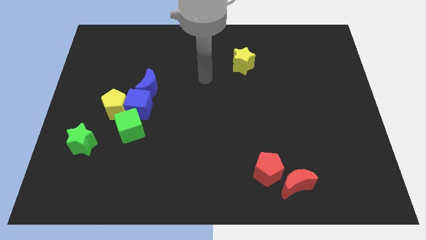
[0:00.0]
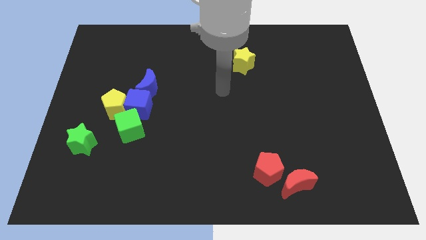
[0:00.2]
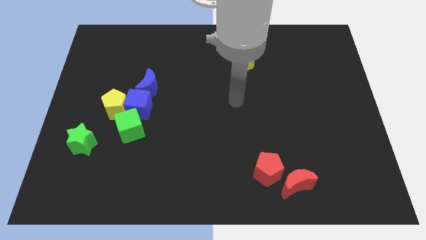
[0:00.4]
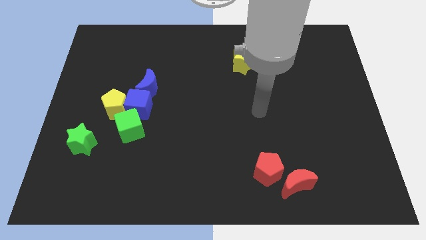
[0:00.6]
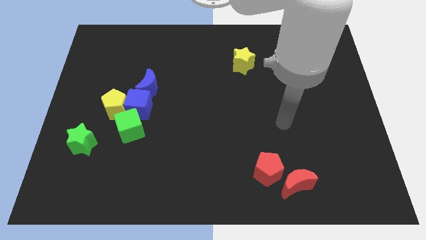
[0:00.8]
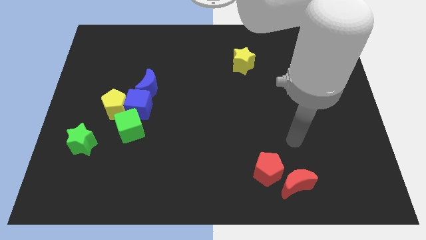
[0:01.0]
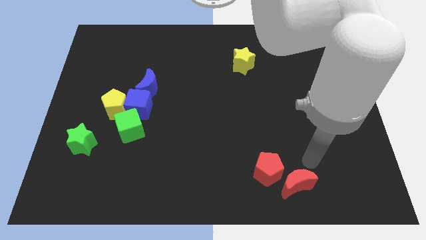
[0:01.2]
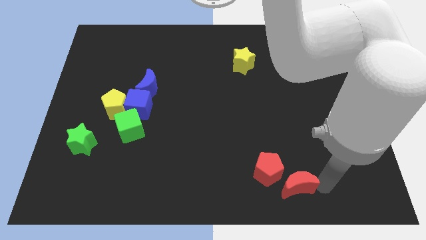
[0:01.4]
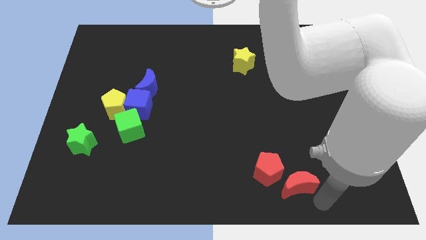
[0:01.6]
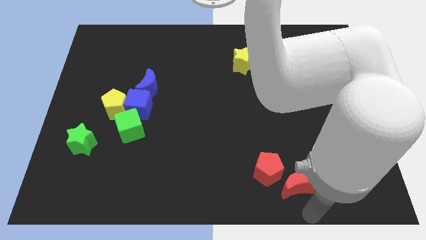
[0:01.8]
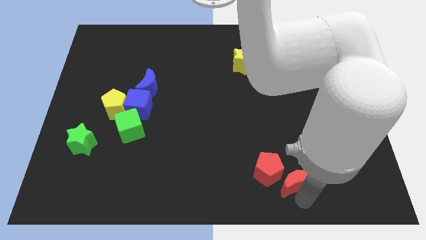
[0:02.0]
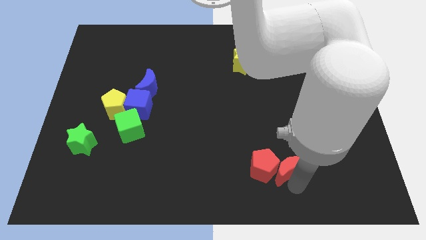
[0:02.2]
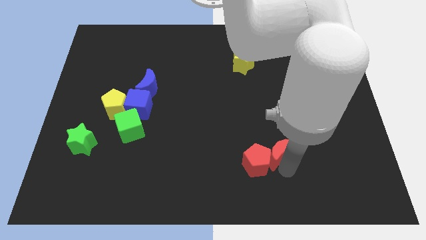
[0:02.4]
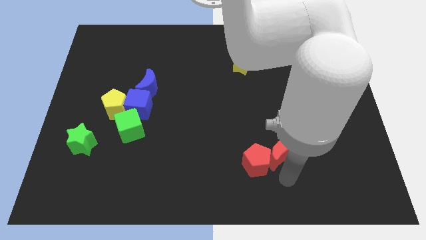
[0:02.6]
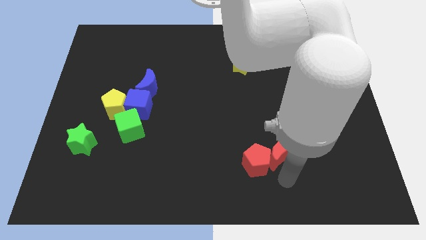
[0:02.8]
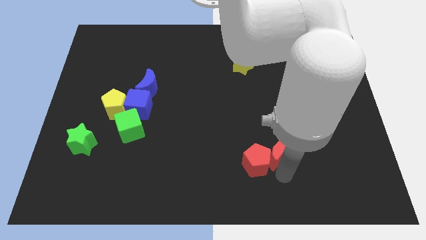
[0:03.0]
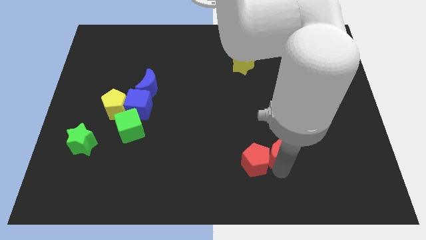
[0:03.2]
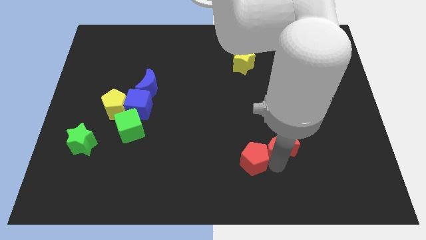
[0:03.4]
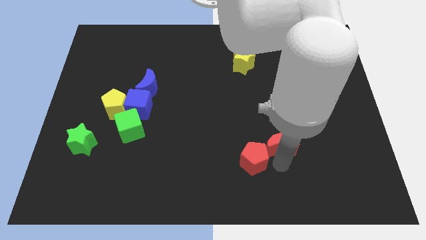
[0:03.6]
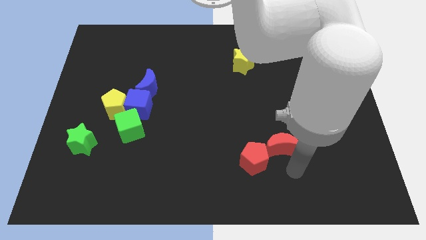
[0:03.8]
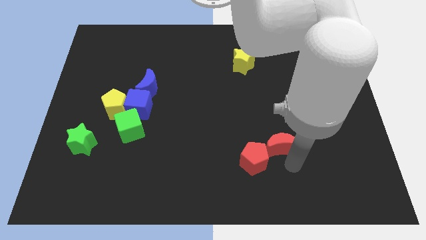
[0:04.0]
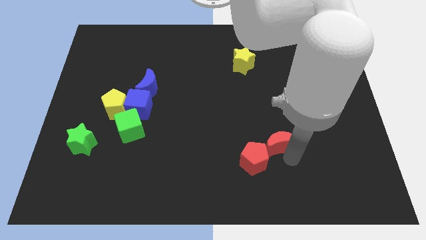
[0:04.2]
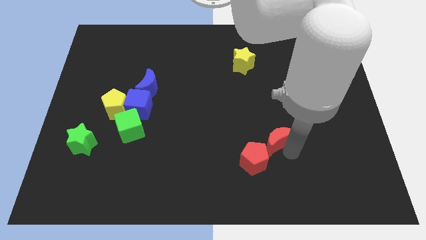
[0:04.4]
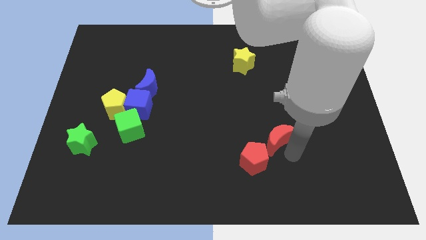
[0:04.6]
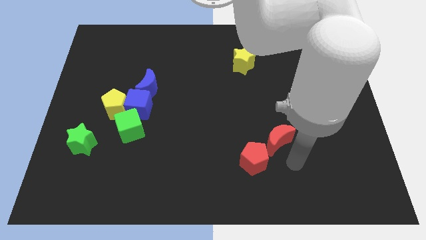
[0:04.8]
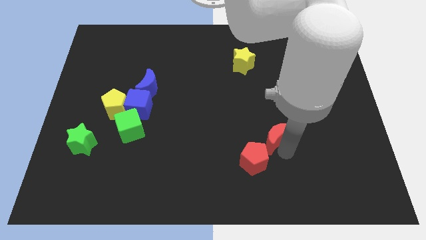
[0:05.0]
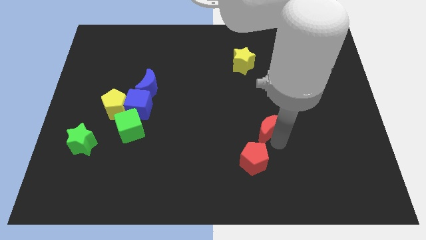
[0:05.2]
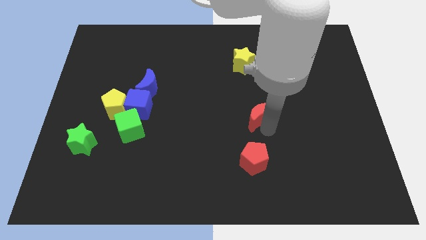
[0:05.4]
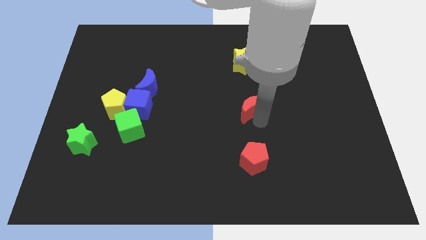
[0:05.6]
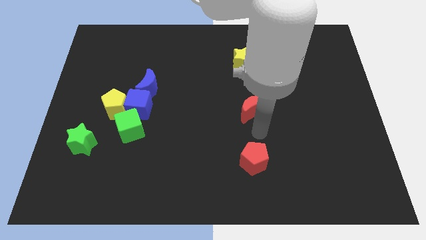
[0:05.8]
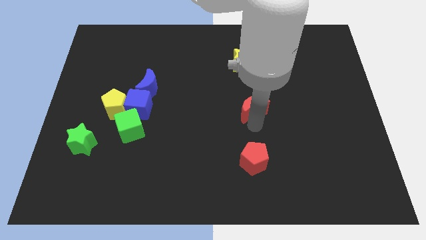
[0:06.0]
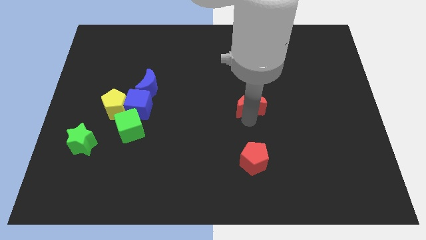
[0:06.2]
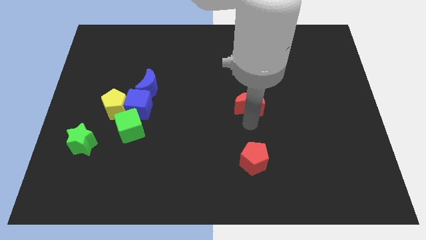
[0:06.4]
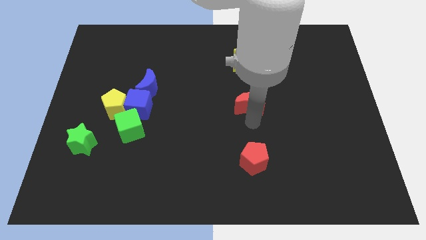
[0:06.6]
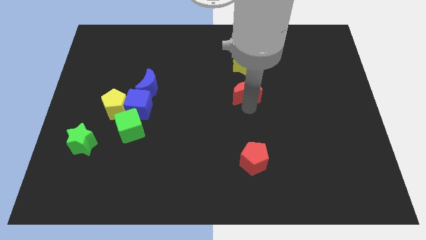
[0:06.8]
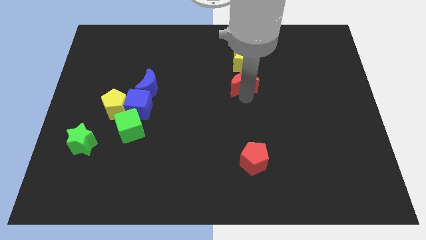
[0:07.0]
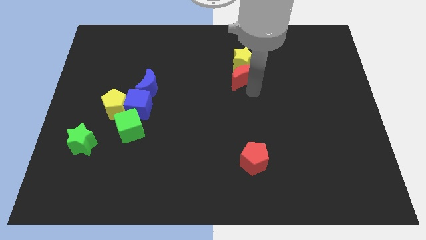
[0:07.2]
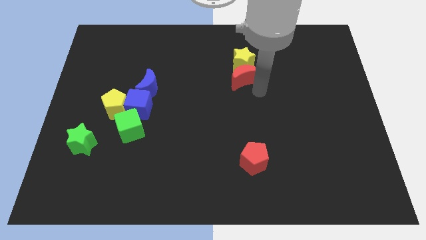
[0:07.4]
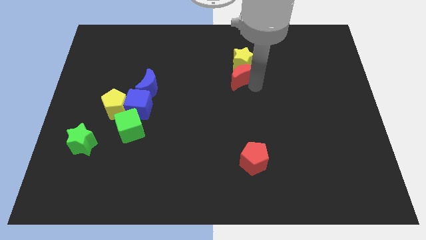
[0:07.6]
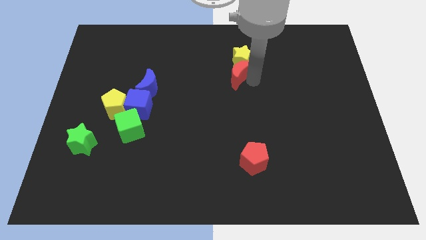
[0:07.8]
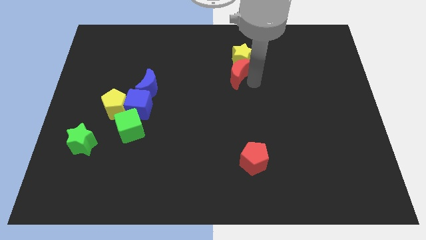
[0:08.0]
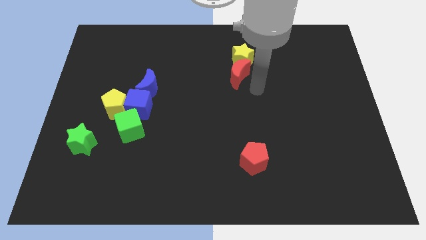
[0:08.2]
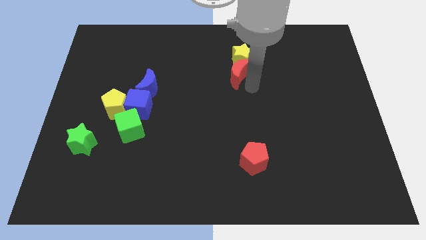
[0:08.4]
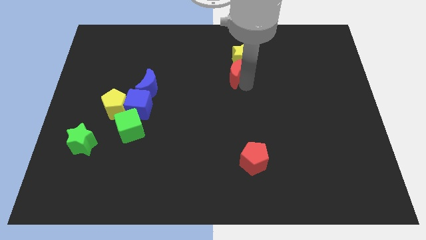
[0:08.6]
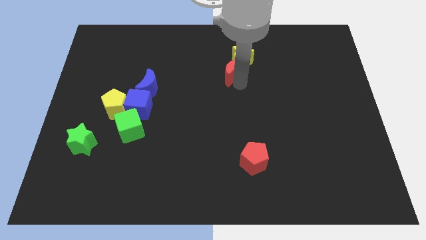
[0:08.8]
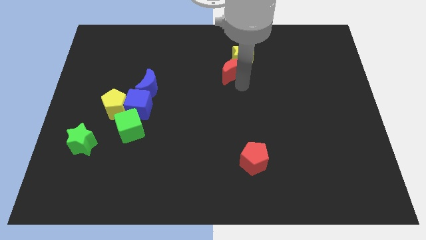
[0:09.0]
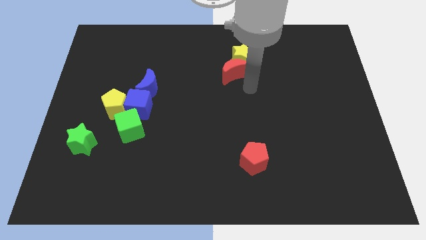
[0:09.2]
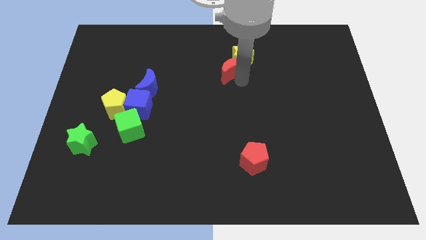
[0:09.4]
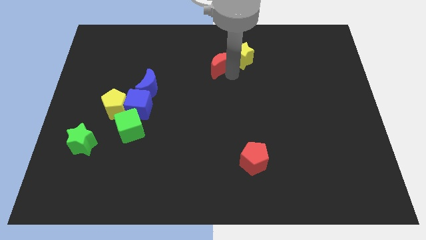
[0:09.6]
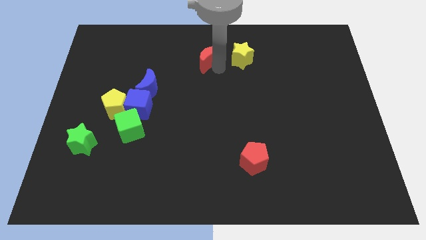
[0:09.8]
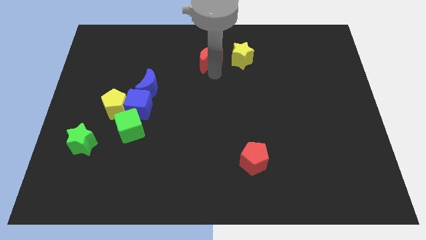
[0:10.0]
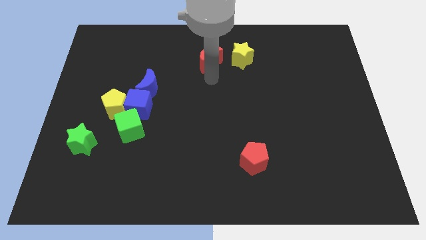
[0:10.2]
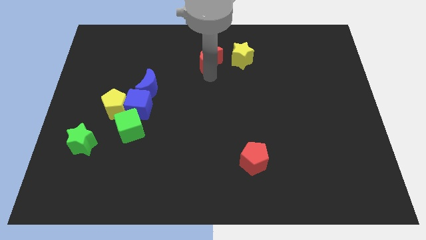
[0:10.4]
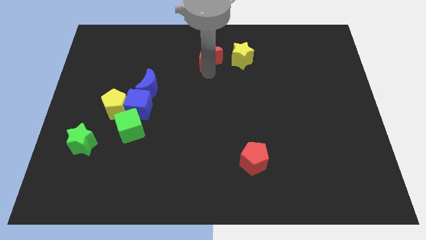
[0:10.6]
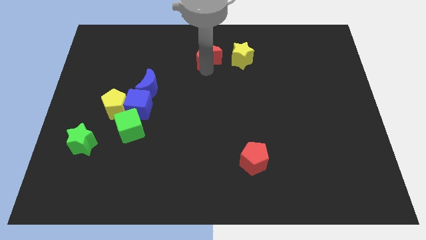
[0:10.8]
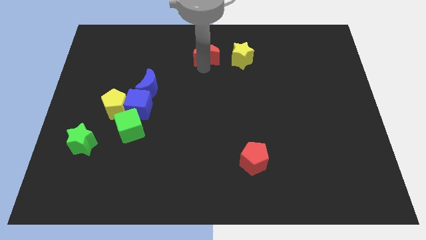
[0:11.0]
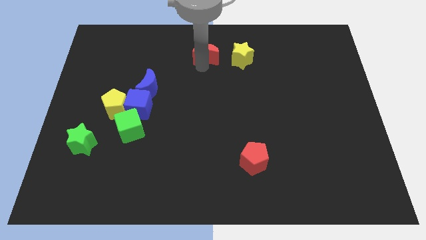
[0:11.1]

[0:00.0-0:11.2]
slide the red moon to the top side

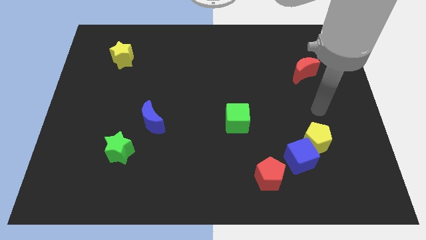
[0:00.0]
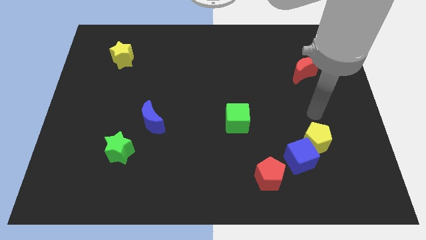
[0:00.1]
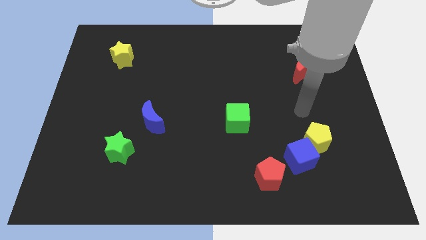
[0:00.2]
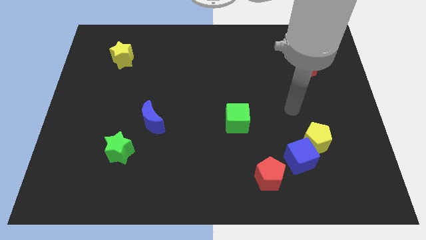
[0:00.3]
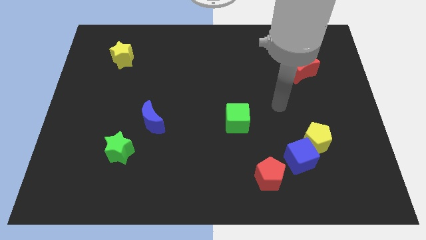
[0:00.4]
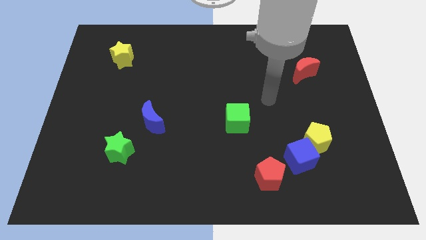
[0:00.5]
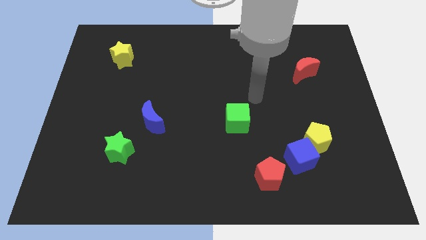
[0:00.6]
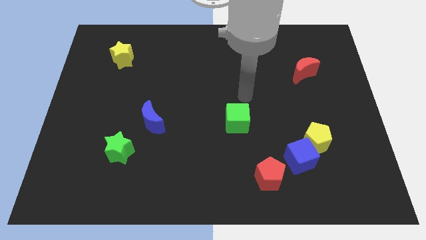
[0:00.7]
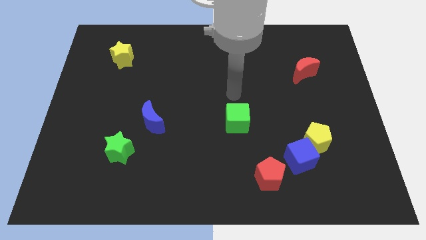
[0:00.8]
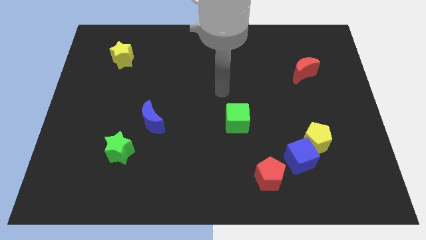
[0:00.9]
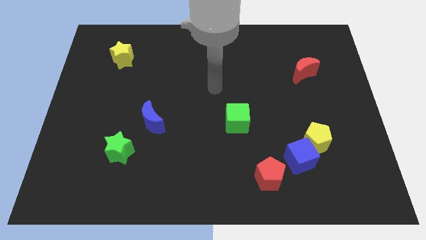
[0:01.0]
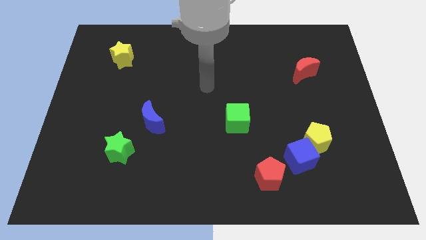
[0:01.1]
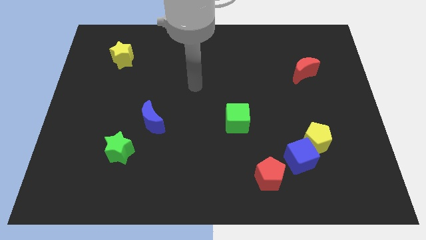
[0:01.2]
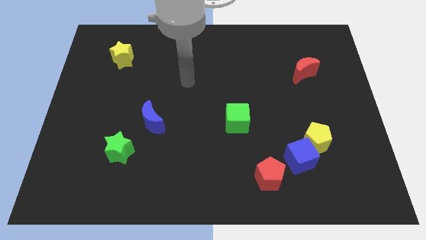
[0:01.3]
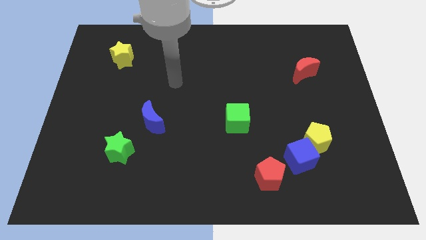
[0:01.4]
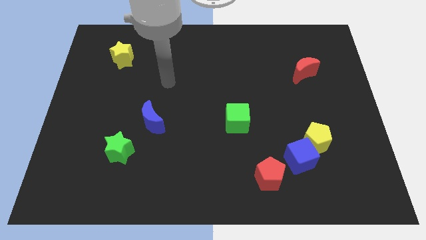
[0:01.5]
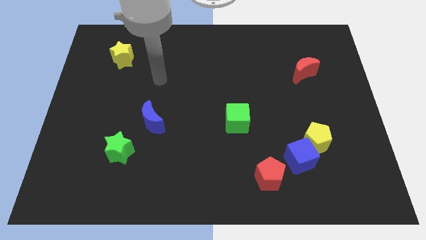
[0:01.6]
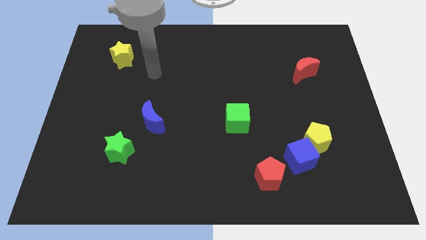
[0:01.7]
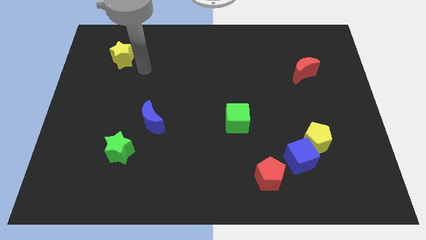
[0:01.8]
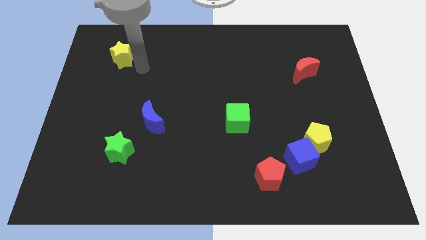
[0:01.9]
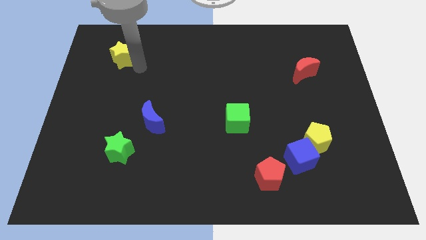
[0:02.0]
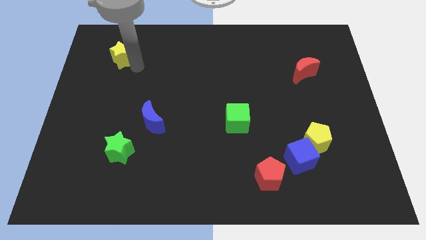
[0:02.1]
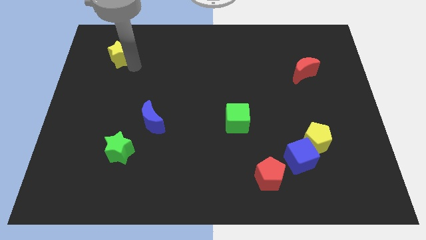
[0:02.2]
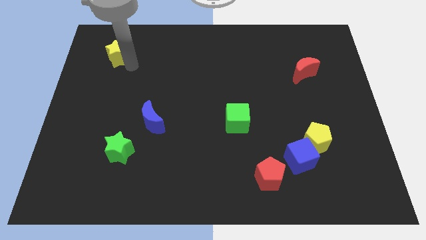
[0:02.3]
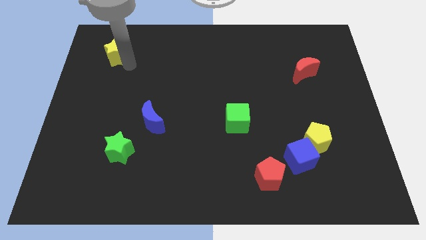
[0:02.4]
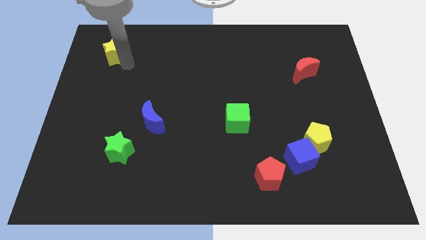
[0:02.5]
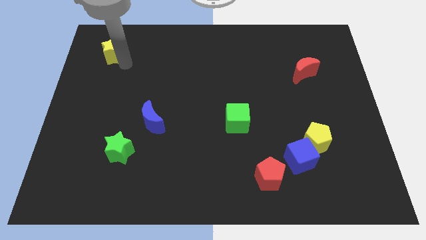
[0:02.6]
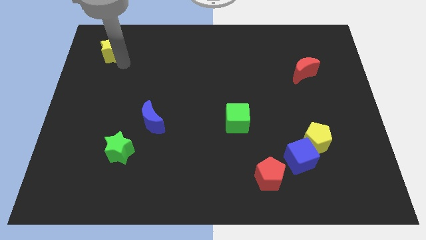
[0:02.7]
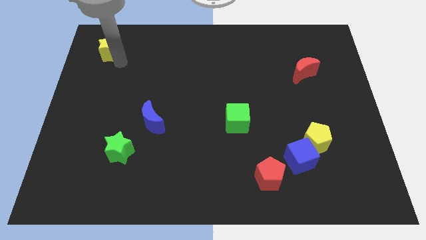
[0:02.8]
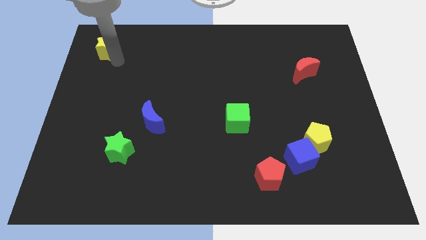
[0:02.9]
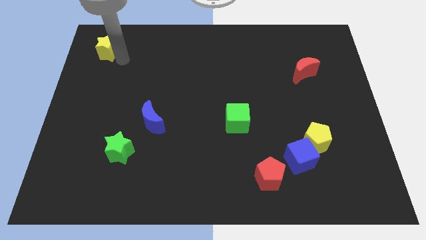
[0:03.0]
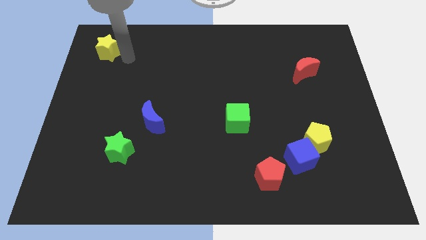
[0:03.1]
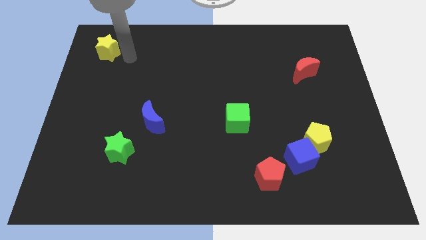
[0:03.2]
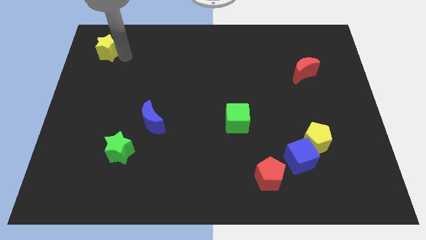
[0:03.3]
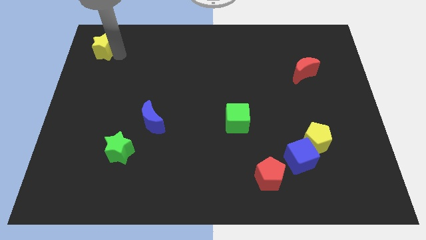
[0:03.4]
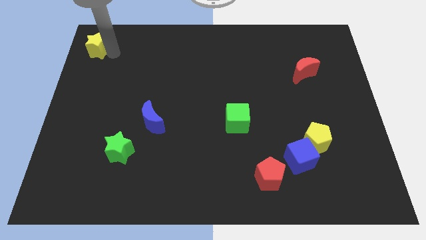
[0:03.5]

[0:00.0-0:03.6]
move the yellow star to the top left corner
